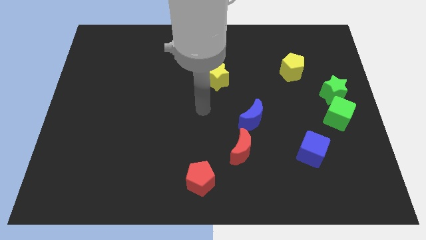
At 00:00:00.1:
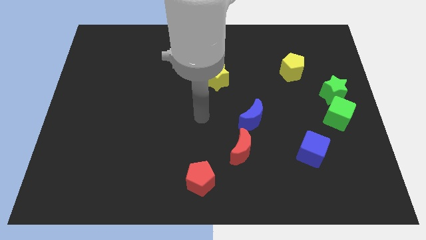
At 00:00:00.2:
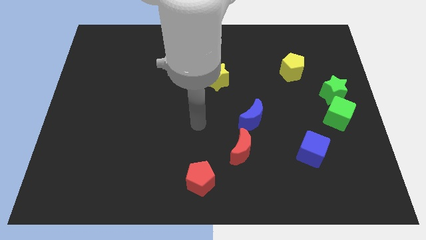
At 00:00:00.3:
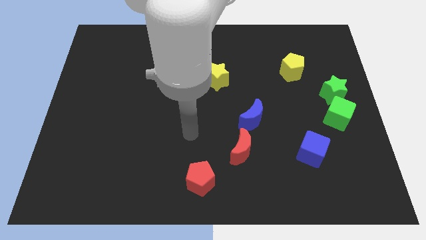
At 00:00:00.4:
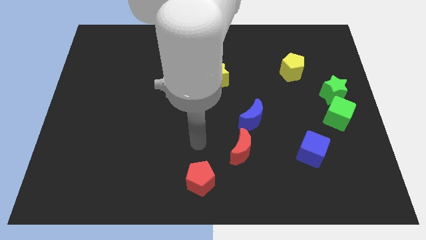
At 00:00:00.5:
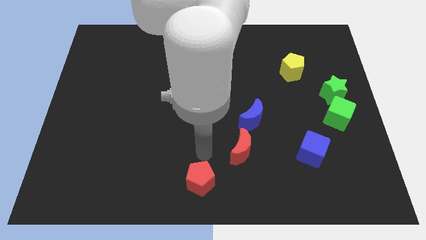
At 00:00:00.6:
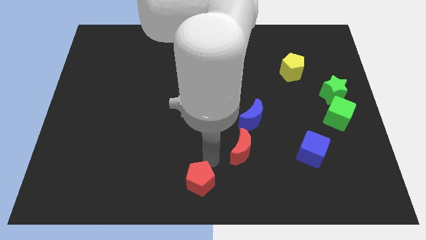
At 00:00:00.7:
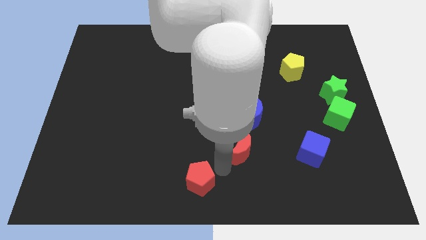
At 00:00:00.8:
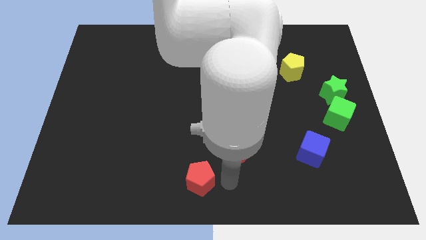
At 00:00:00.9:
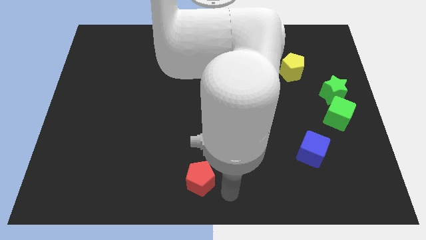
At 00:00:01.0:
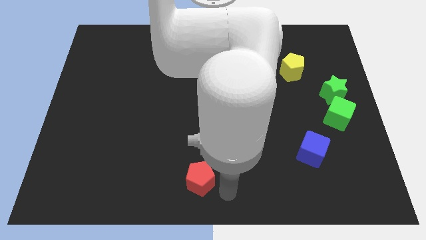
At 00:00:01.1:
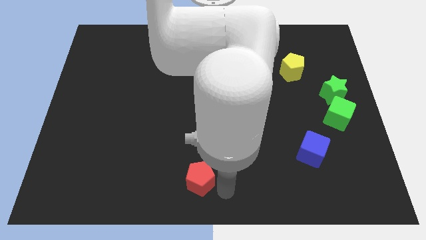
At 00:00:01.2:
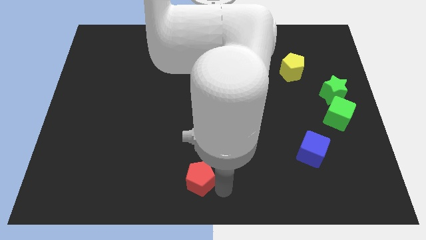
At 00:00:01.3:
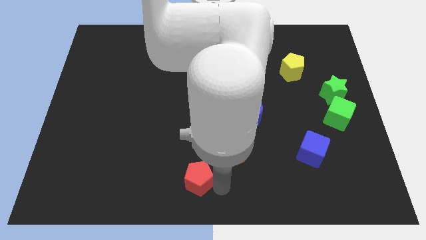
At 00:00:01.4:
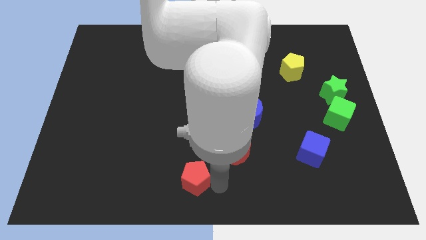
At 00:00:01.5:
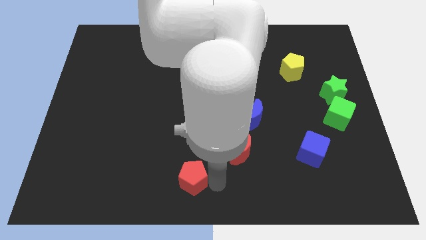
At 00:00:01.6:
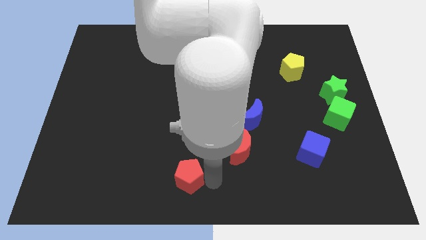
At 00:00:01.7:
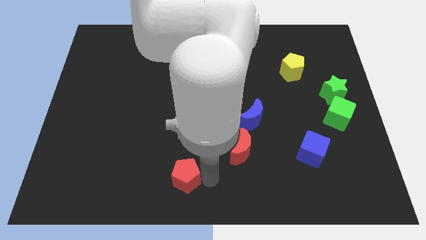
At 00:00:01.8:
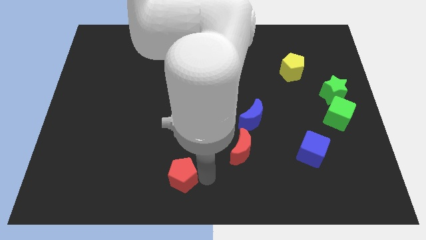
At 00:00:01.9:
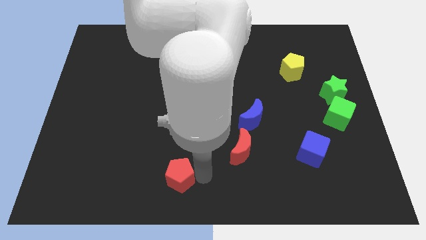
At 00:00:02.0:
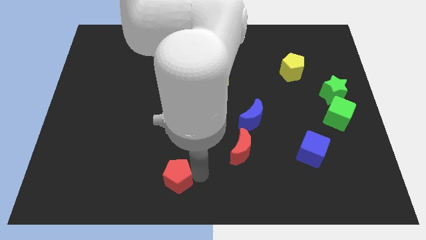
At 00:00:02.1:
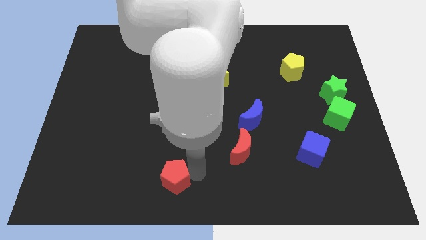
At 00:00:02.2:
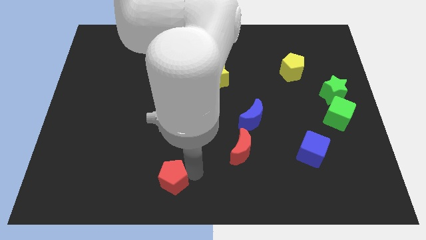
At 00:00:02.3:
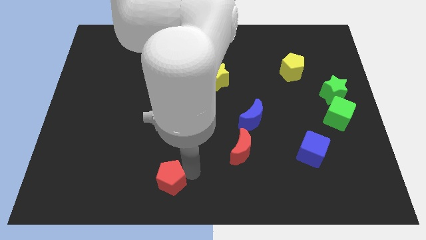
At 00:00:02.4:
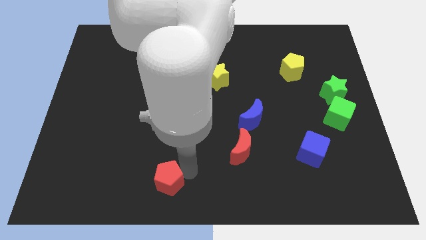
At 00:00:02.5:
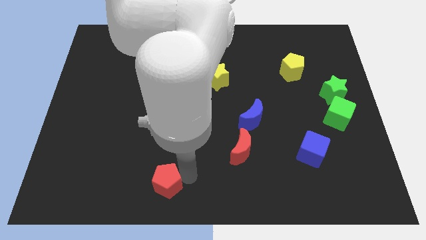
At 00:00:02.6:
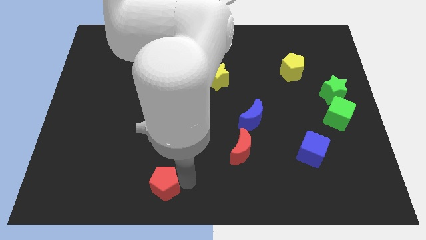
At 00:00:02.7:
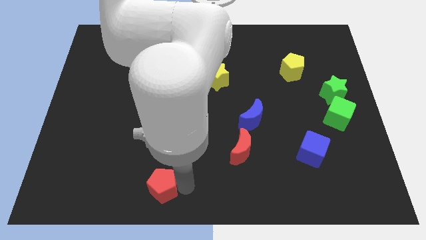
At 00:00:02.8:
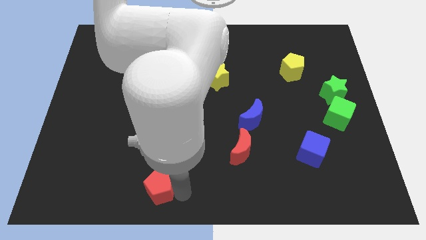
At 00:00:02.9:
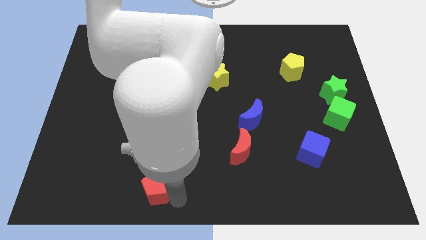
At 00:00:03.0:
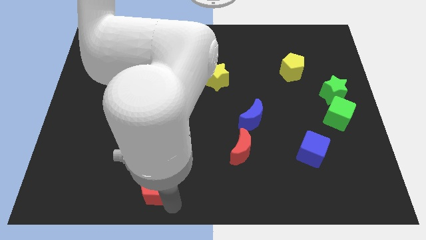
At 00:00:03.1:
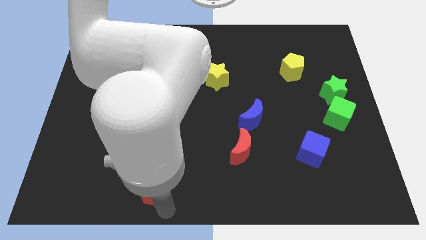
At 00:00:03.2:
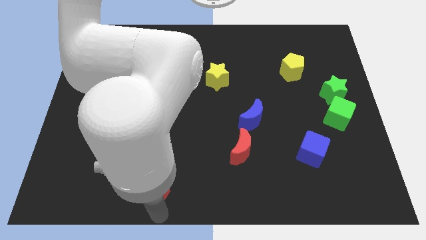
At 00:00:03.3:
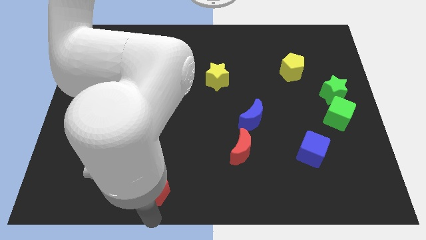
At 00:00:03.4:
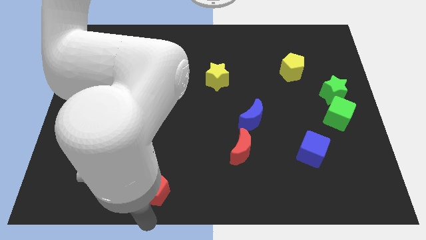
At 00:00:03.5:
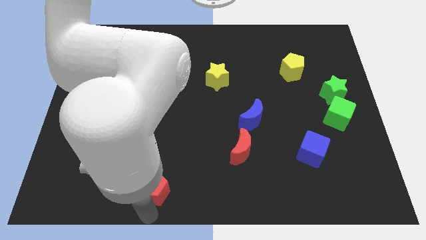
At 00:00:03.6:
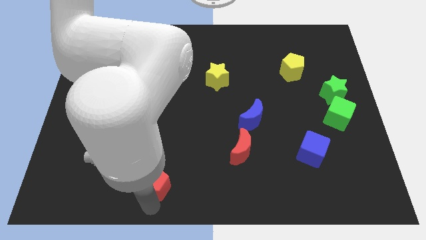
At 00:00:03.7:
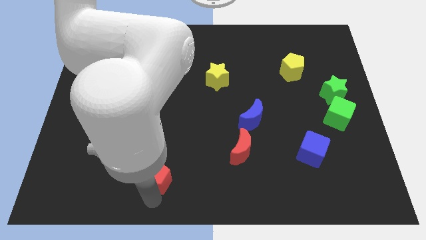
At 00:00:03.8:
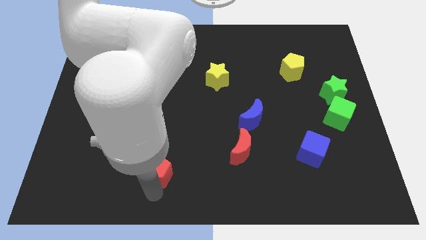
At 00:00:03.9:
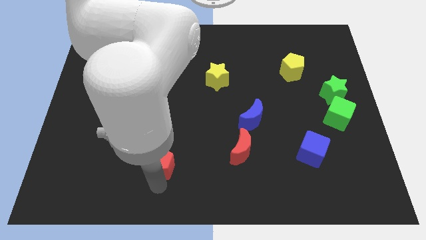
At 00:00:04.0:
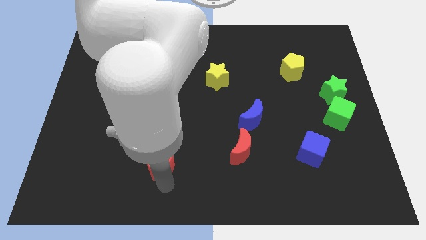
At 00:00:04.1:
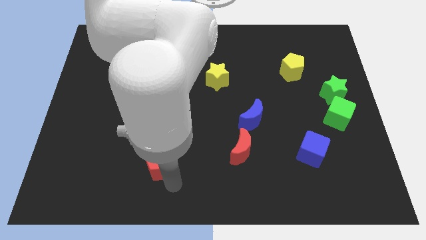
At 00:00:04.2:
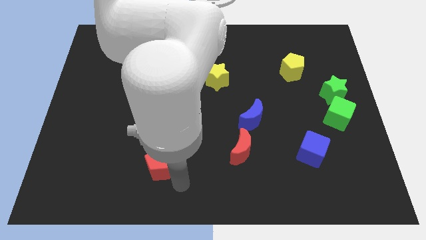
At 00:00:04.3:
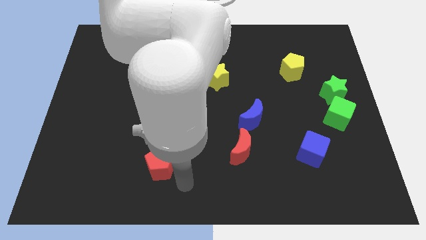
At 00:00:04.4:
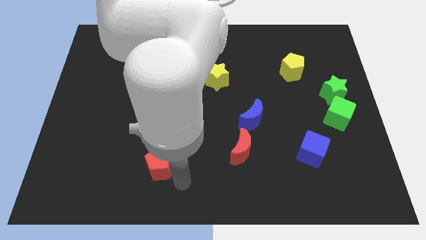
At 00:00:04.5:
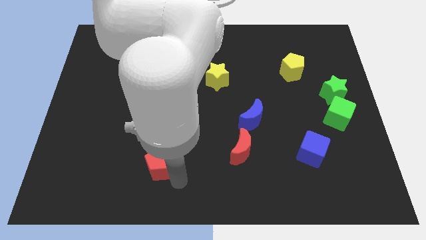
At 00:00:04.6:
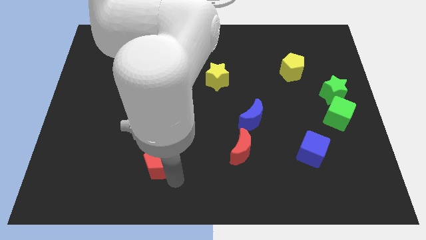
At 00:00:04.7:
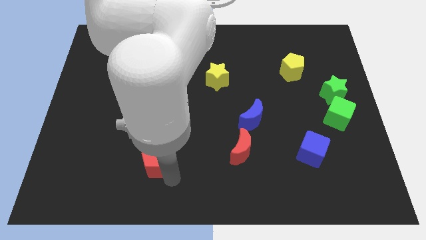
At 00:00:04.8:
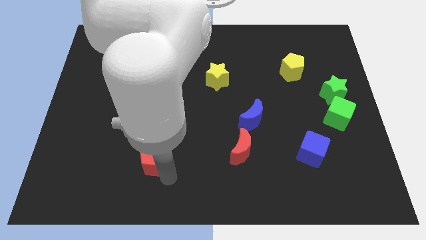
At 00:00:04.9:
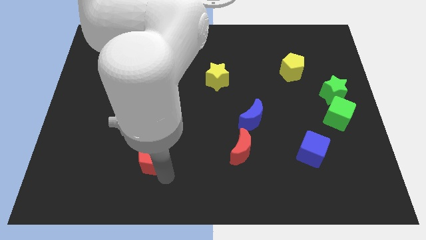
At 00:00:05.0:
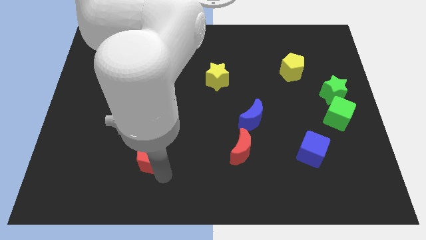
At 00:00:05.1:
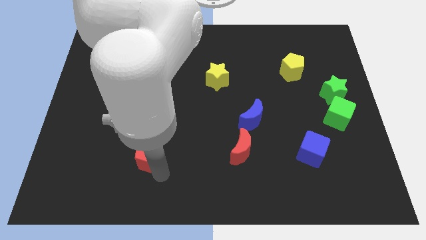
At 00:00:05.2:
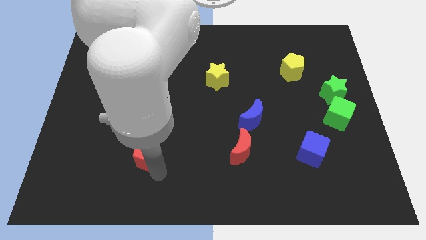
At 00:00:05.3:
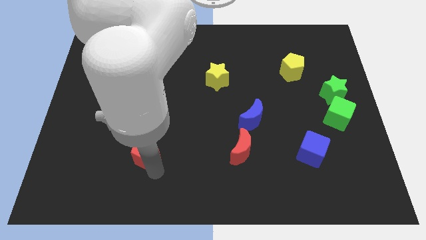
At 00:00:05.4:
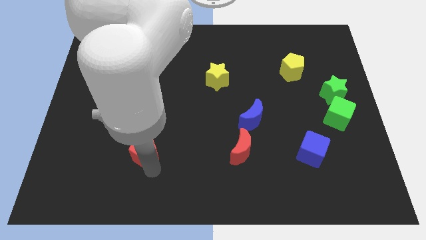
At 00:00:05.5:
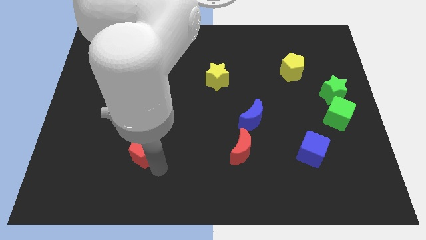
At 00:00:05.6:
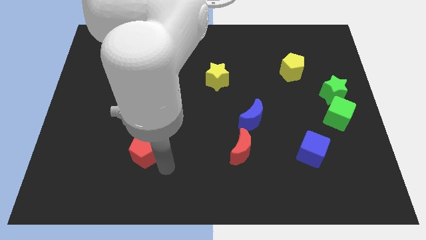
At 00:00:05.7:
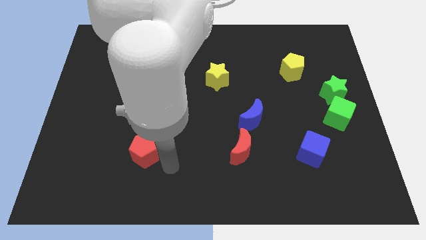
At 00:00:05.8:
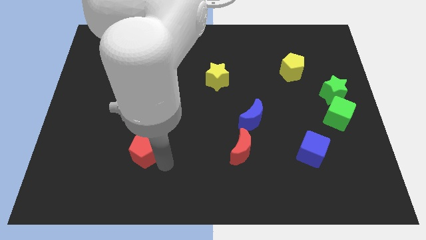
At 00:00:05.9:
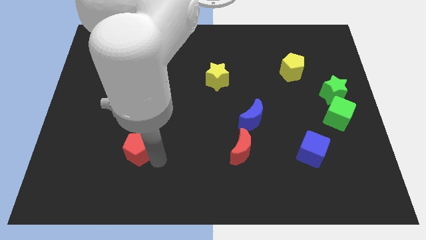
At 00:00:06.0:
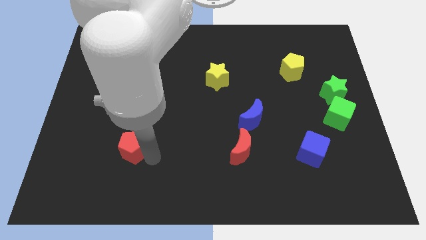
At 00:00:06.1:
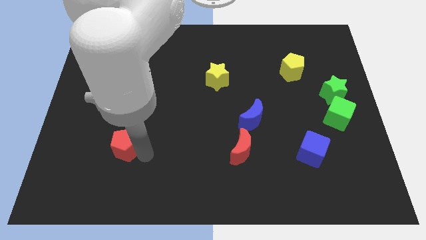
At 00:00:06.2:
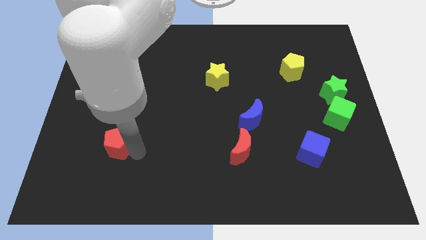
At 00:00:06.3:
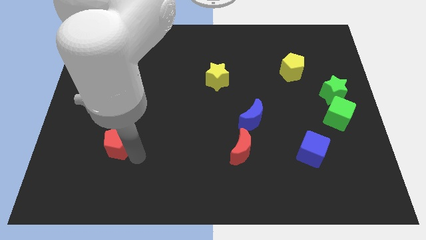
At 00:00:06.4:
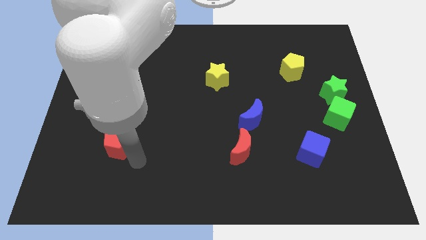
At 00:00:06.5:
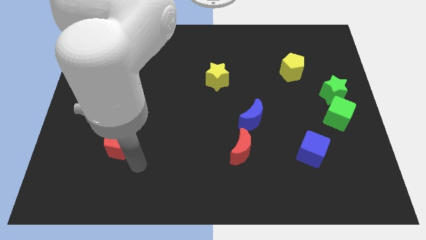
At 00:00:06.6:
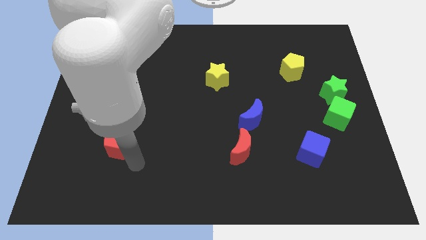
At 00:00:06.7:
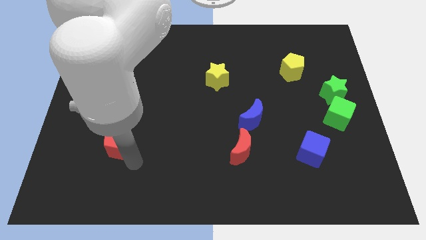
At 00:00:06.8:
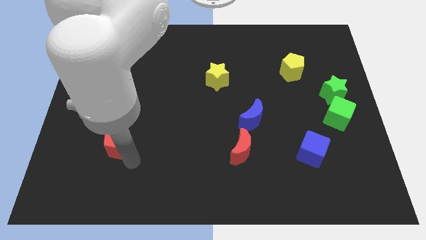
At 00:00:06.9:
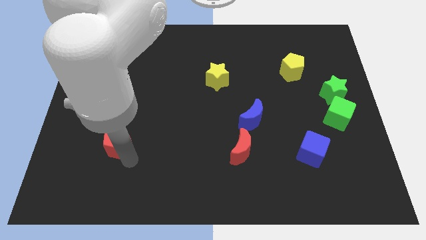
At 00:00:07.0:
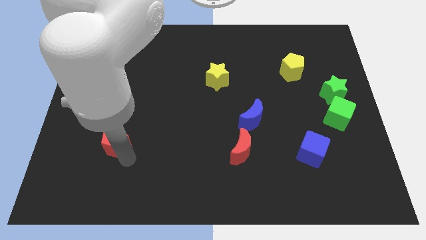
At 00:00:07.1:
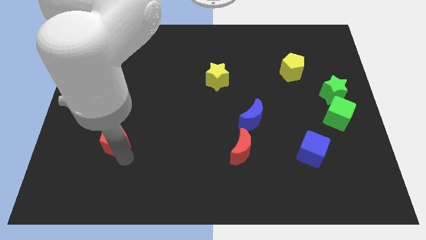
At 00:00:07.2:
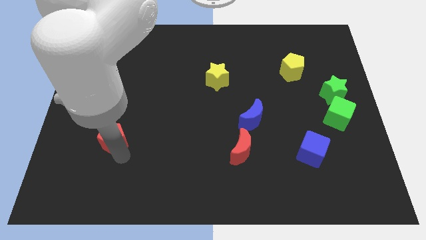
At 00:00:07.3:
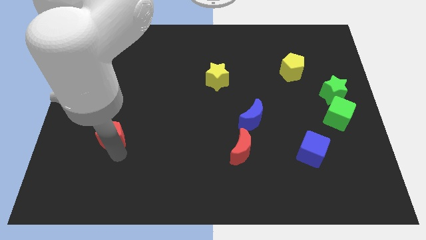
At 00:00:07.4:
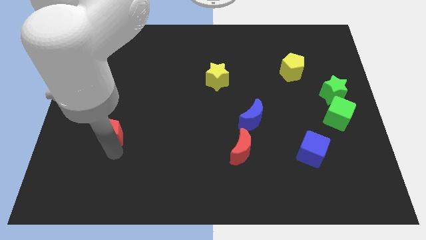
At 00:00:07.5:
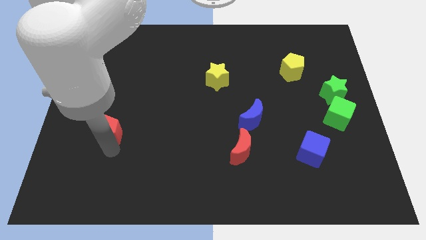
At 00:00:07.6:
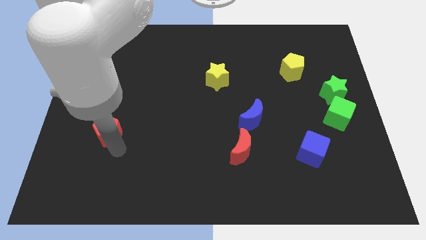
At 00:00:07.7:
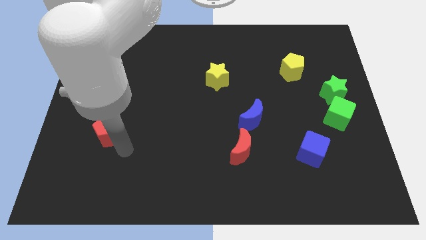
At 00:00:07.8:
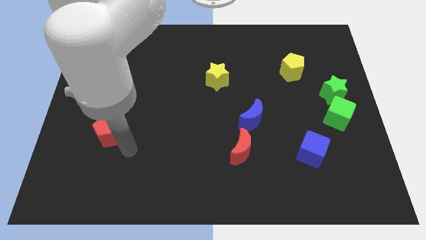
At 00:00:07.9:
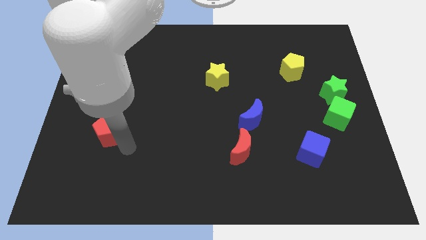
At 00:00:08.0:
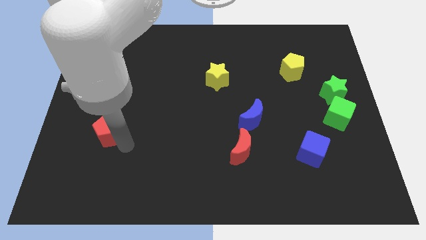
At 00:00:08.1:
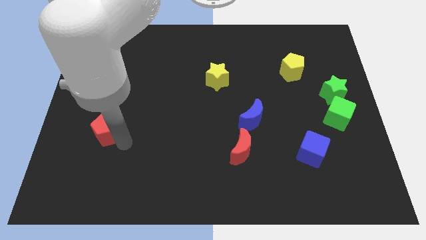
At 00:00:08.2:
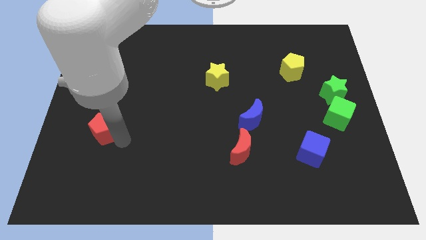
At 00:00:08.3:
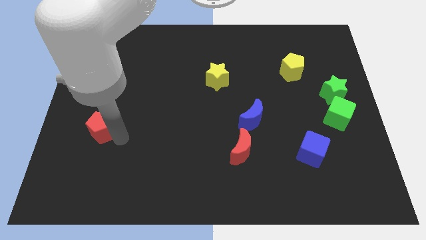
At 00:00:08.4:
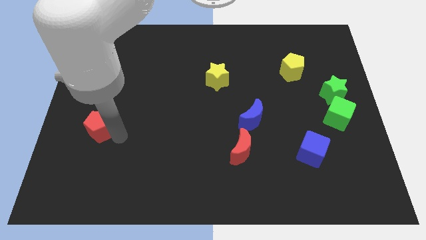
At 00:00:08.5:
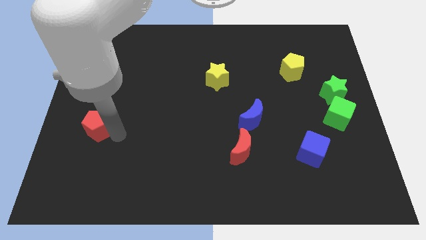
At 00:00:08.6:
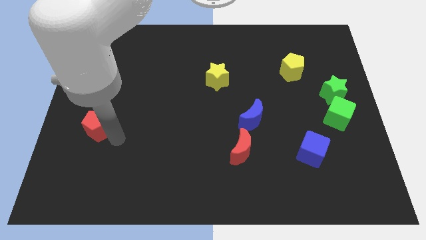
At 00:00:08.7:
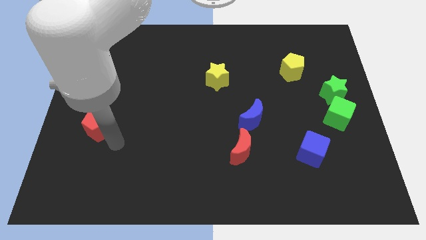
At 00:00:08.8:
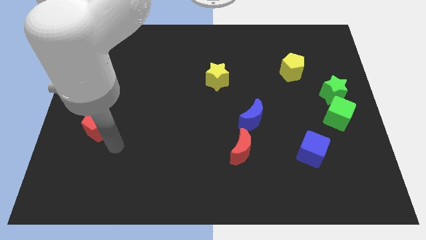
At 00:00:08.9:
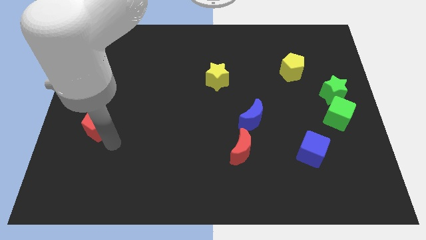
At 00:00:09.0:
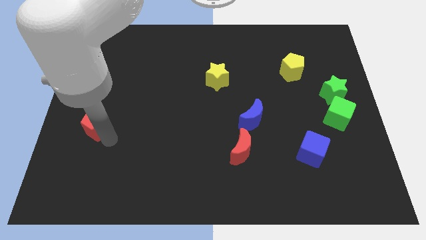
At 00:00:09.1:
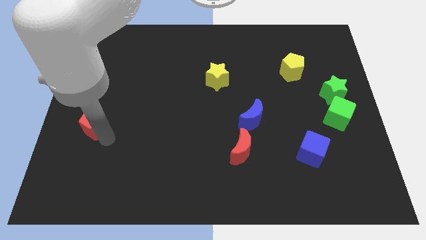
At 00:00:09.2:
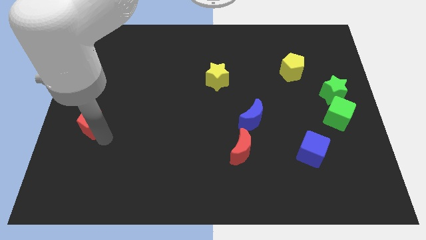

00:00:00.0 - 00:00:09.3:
move the red pentagon to the left side of the board
